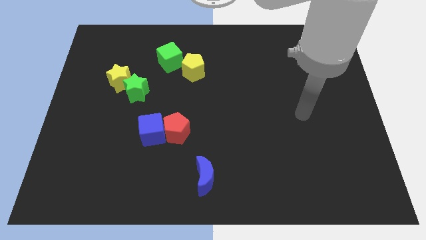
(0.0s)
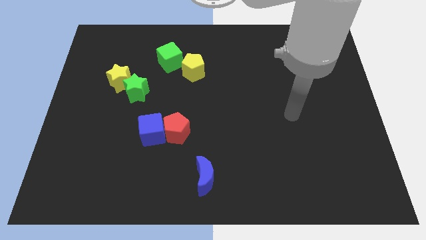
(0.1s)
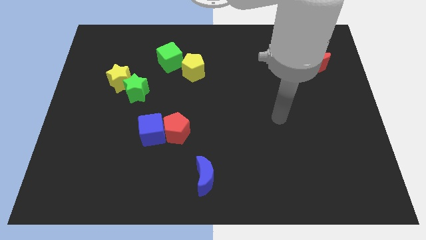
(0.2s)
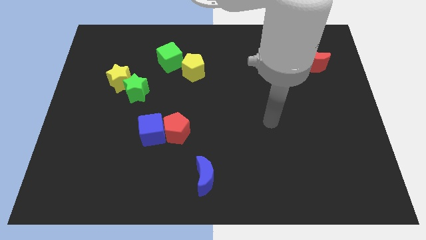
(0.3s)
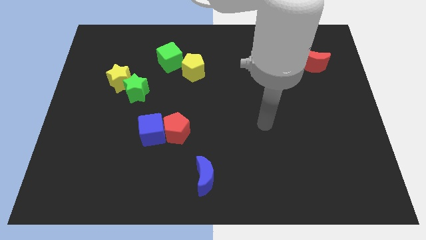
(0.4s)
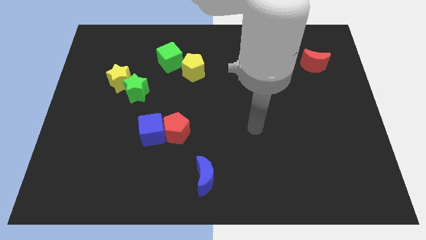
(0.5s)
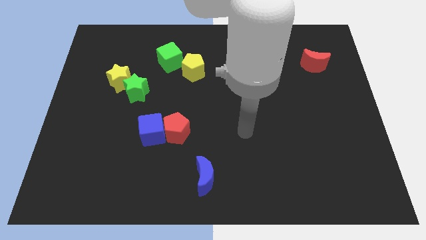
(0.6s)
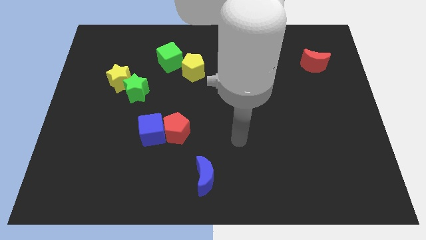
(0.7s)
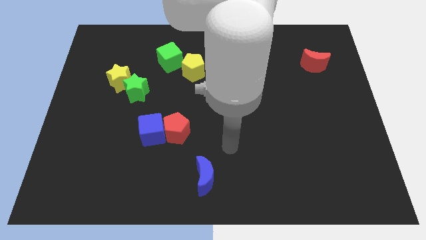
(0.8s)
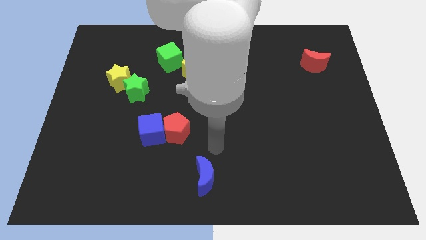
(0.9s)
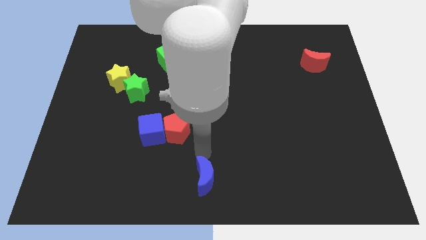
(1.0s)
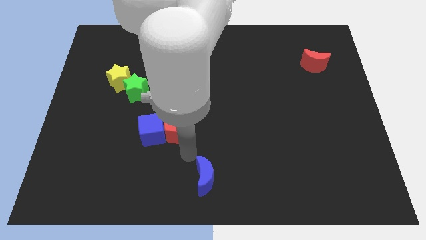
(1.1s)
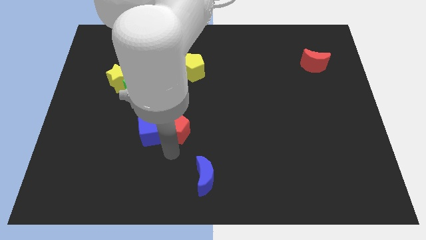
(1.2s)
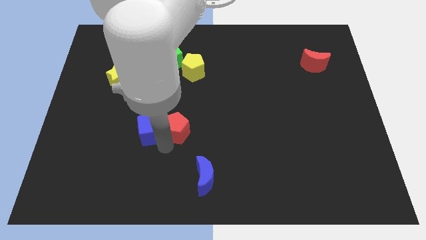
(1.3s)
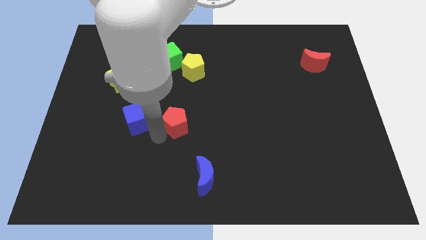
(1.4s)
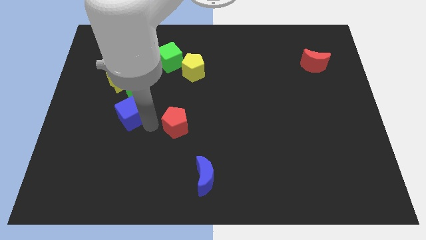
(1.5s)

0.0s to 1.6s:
move the red pentagon away from the blue cube

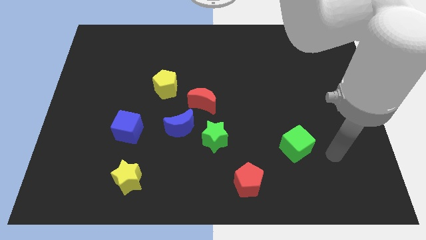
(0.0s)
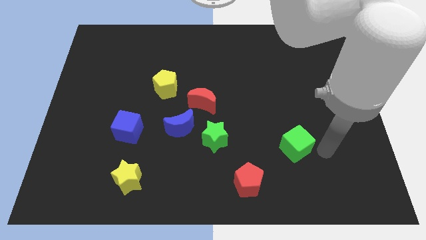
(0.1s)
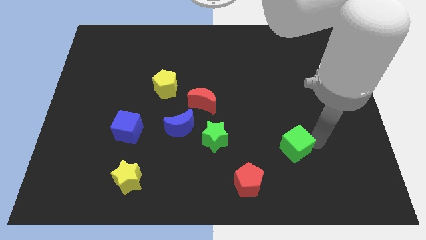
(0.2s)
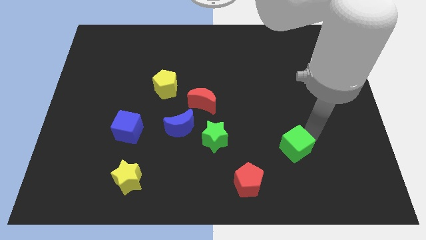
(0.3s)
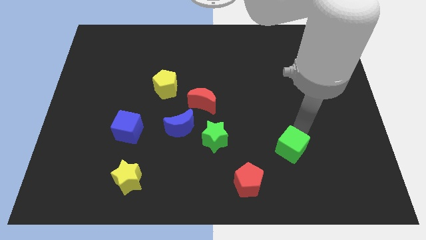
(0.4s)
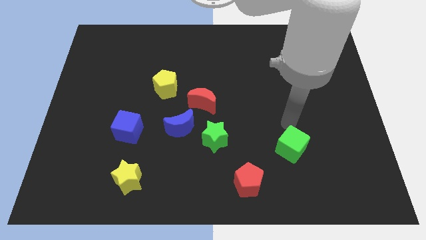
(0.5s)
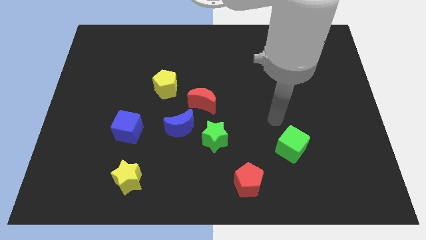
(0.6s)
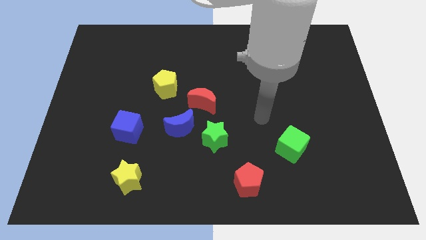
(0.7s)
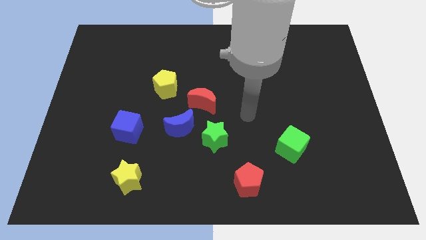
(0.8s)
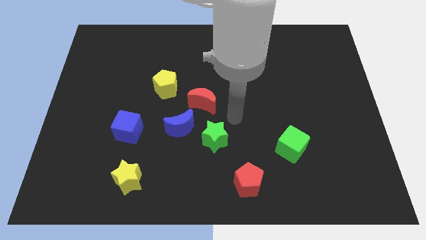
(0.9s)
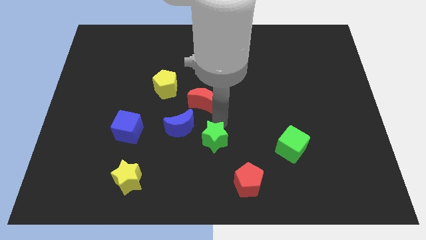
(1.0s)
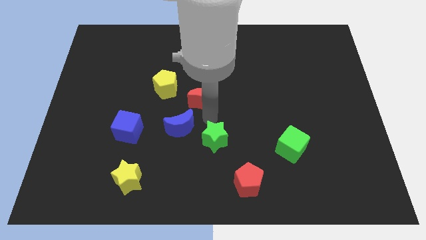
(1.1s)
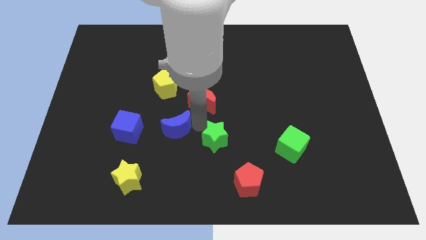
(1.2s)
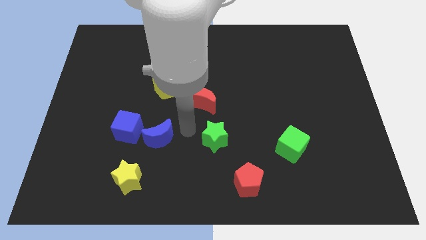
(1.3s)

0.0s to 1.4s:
pull the green star apart from the blue moon

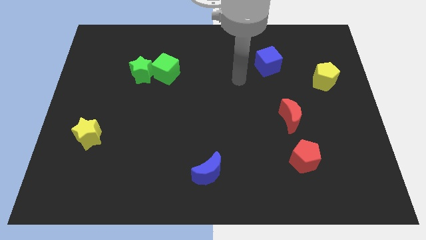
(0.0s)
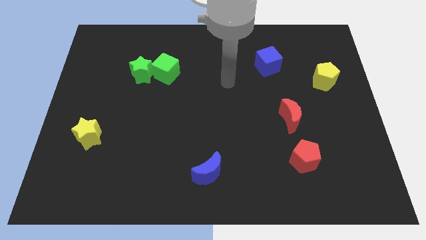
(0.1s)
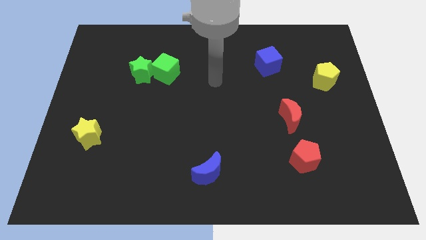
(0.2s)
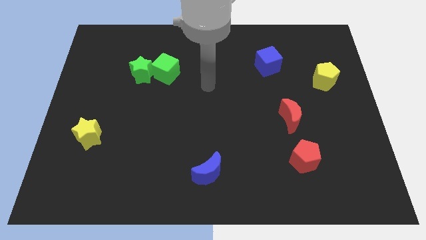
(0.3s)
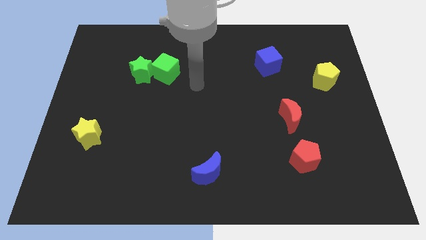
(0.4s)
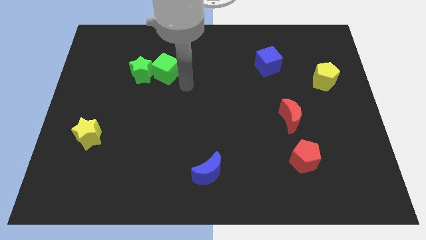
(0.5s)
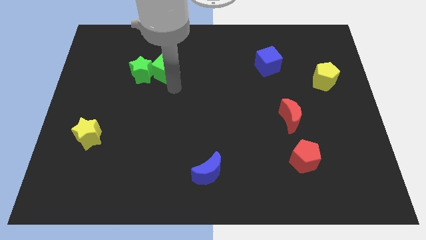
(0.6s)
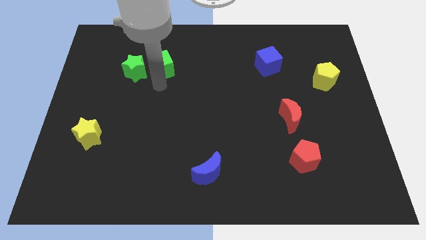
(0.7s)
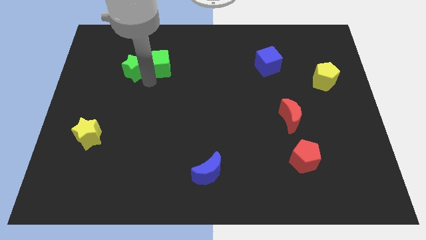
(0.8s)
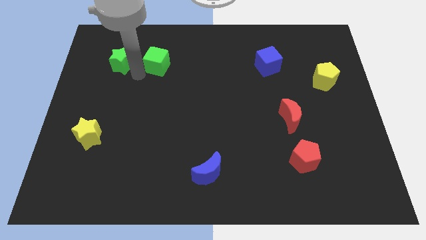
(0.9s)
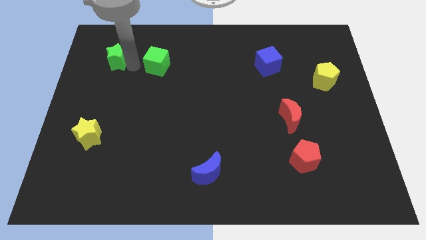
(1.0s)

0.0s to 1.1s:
move the green cube away from the green star

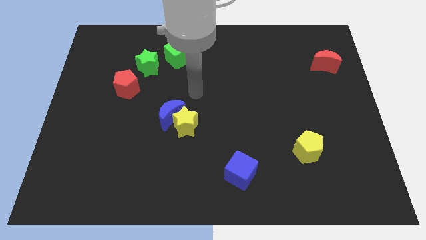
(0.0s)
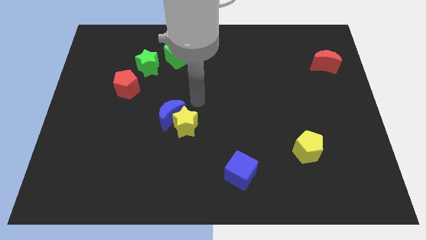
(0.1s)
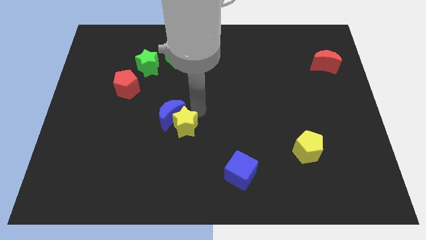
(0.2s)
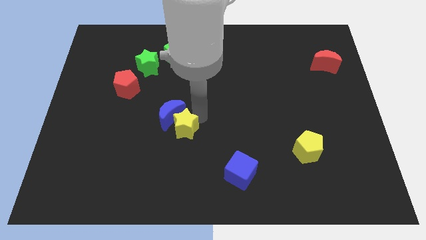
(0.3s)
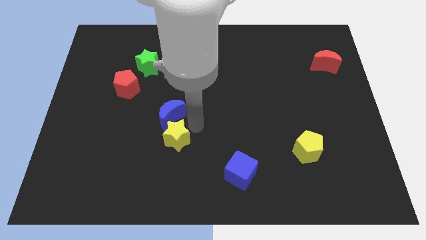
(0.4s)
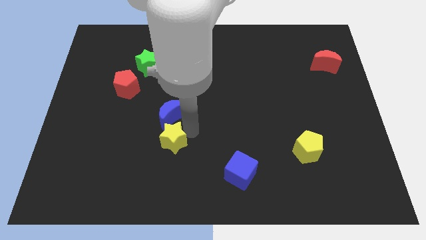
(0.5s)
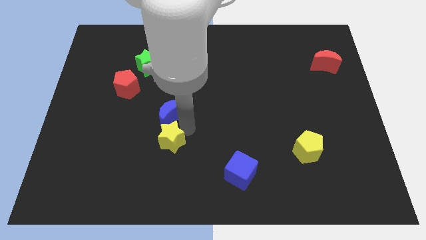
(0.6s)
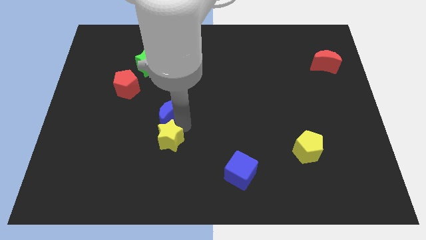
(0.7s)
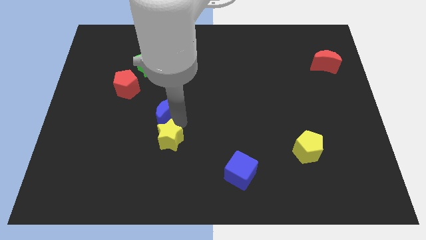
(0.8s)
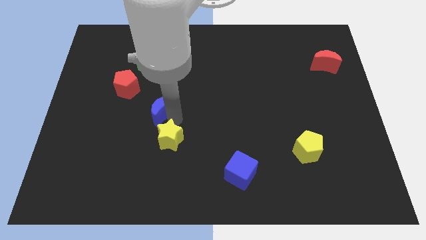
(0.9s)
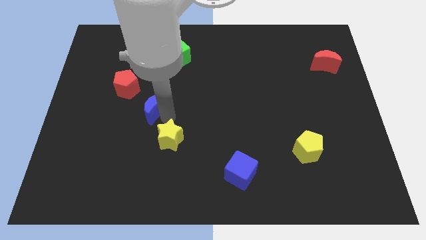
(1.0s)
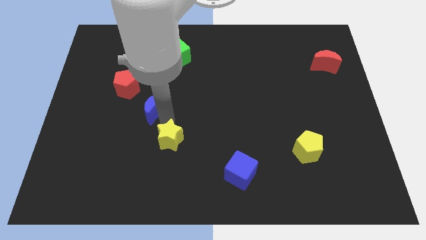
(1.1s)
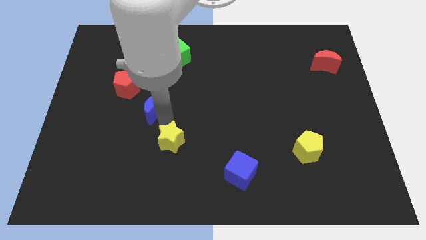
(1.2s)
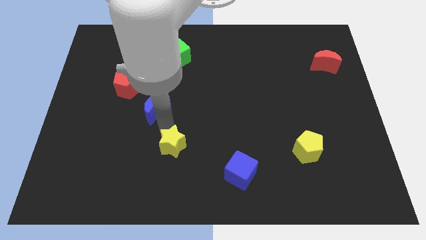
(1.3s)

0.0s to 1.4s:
move the blue moon away from the yellow star

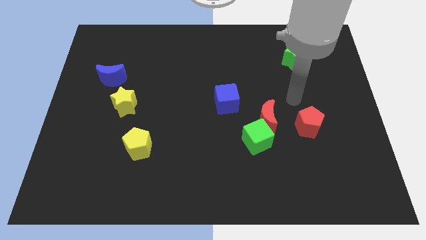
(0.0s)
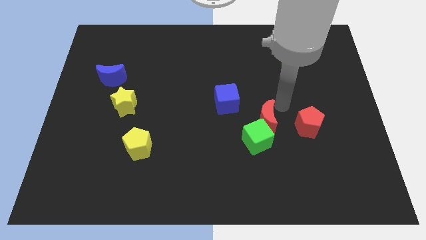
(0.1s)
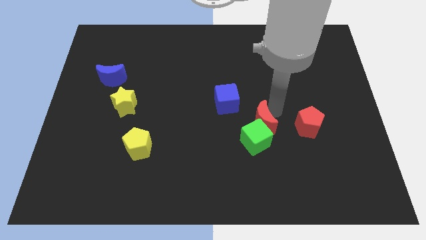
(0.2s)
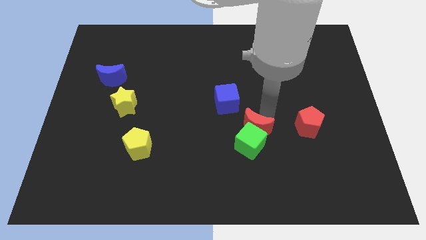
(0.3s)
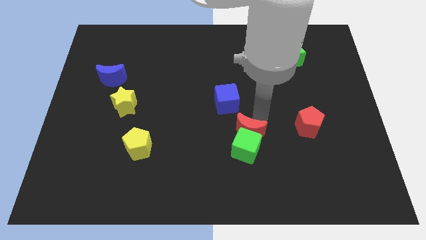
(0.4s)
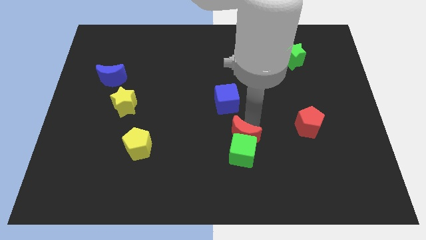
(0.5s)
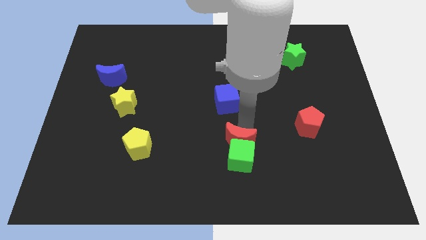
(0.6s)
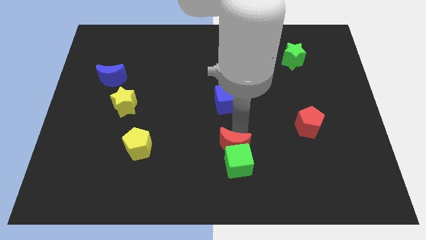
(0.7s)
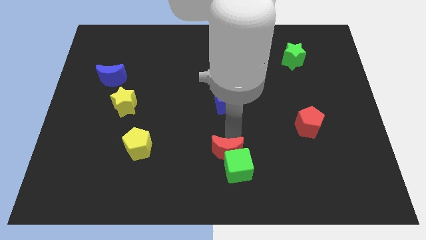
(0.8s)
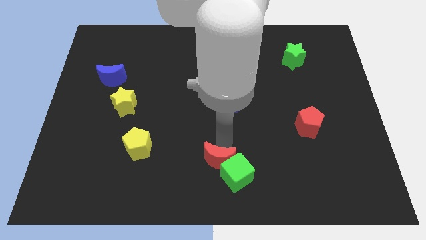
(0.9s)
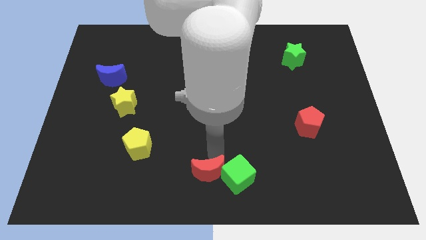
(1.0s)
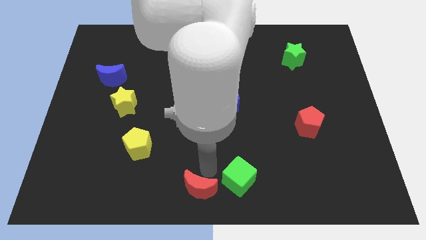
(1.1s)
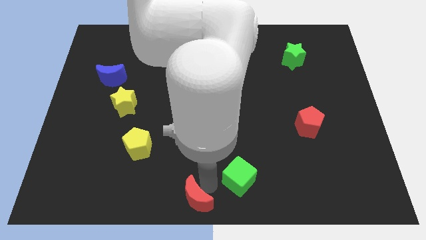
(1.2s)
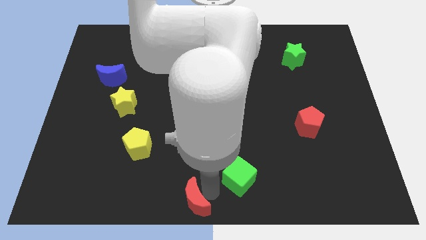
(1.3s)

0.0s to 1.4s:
separate the green cube from the red moon

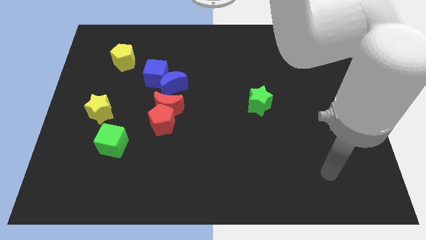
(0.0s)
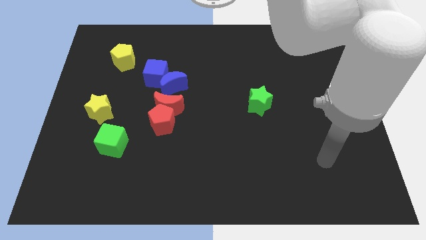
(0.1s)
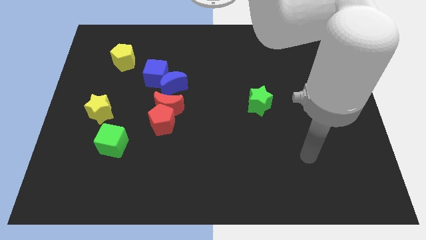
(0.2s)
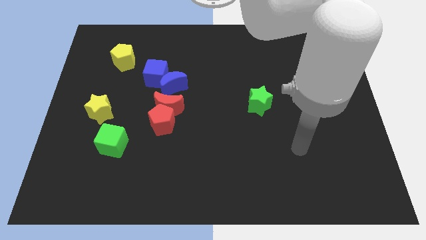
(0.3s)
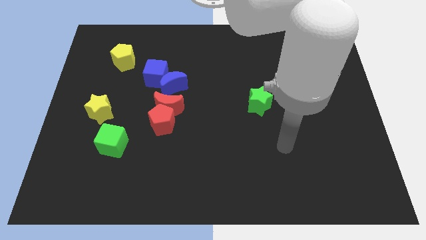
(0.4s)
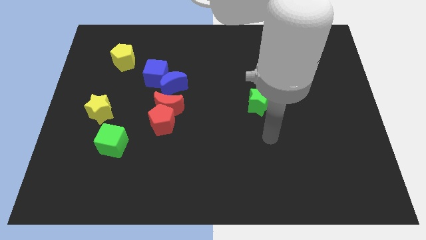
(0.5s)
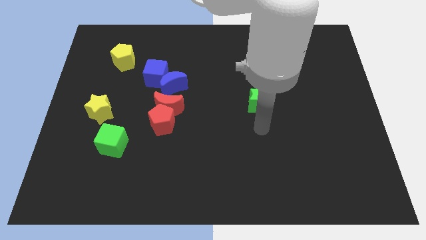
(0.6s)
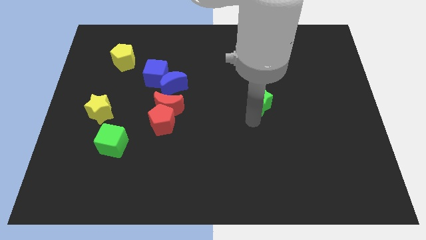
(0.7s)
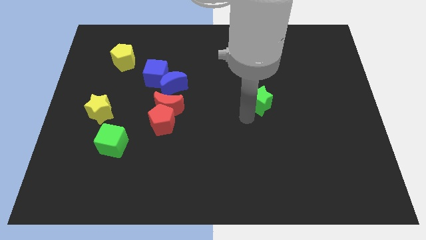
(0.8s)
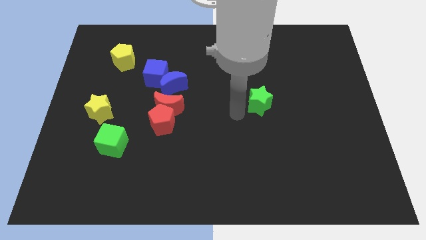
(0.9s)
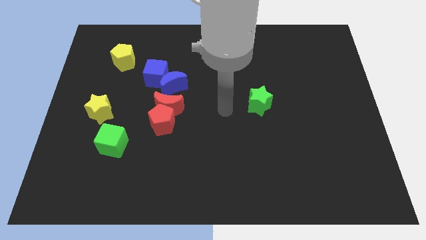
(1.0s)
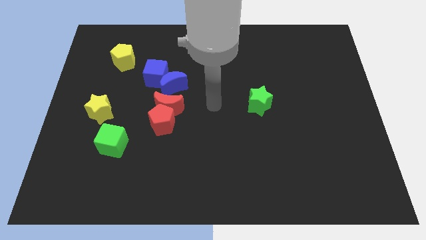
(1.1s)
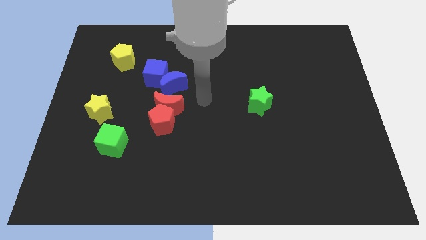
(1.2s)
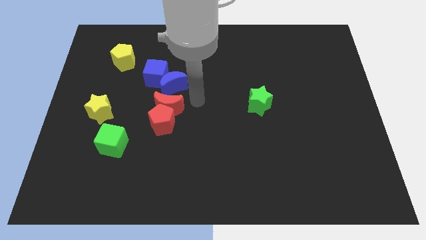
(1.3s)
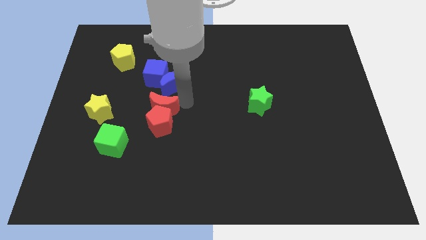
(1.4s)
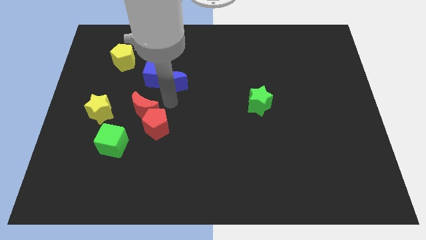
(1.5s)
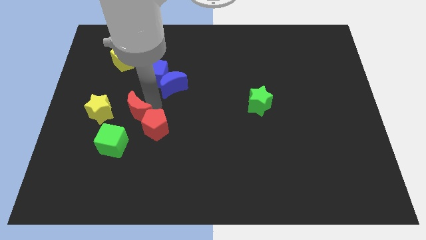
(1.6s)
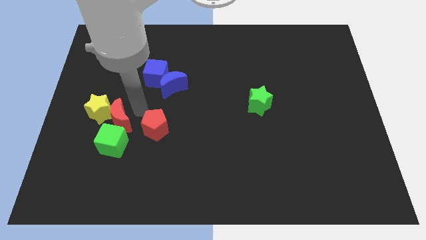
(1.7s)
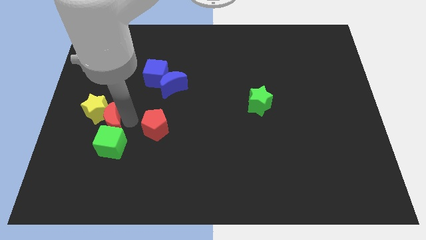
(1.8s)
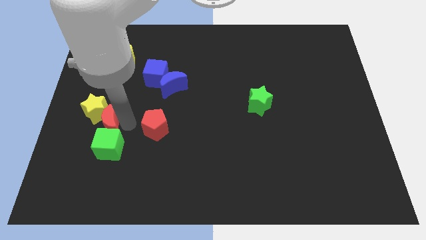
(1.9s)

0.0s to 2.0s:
separate the red pentagon from the red moon

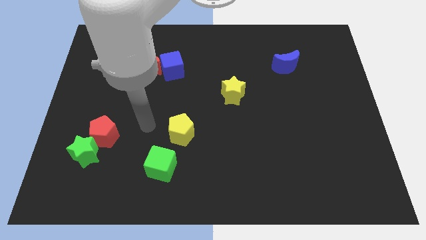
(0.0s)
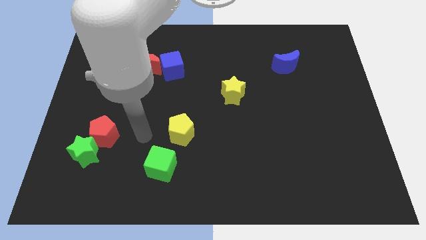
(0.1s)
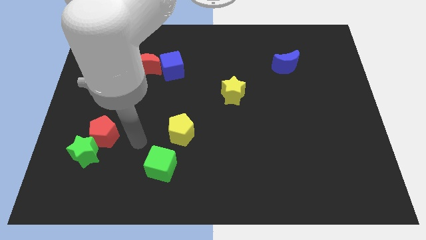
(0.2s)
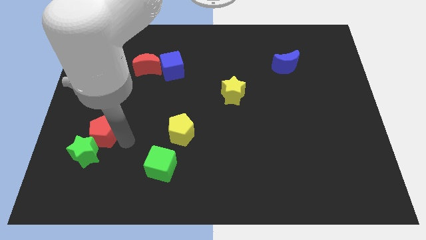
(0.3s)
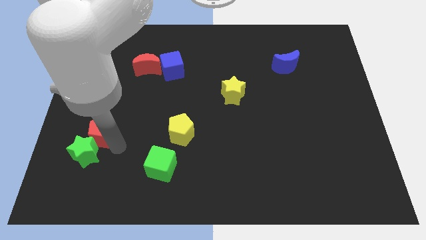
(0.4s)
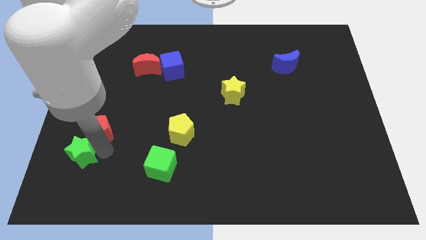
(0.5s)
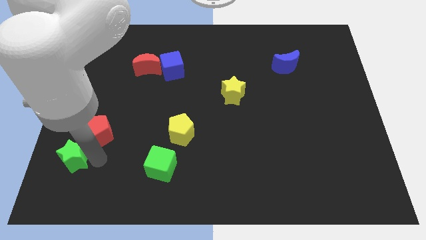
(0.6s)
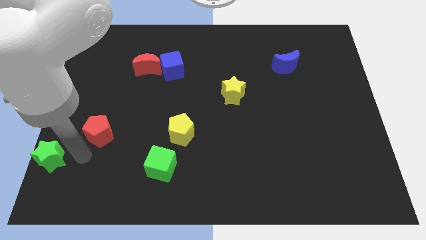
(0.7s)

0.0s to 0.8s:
separate the red pentagon from the green star
